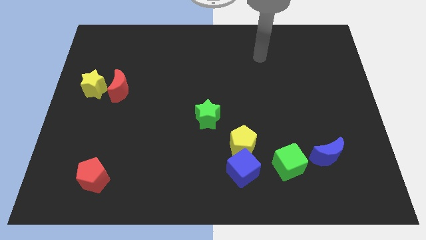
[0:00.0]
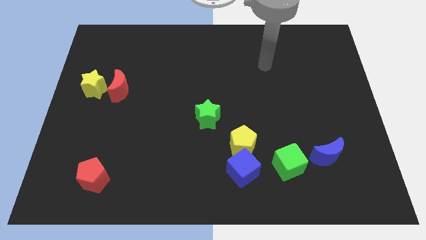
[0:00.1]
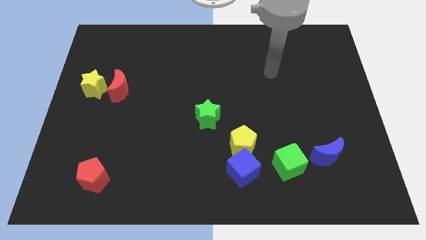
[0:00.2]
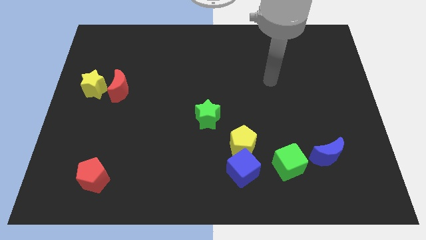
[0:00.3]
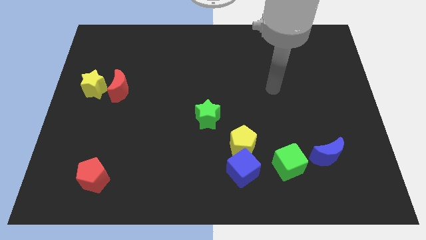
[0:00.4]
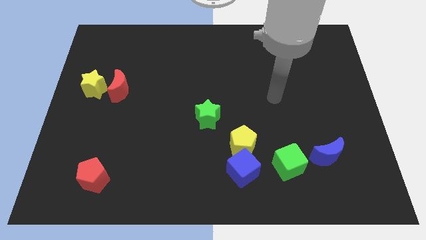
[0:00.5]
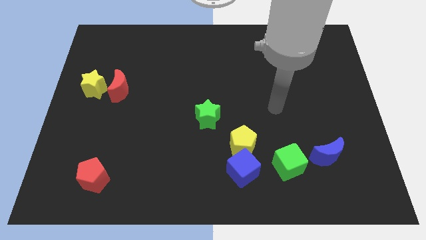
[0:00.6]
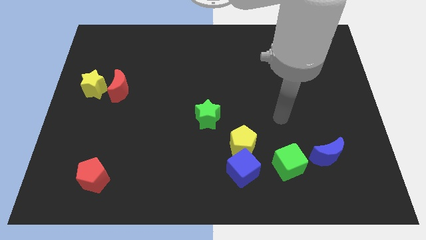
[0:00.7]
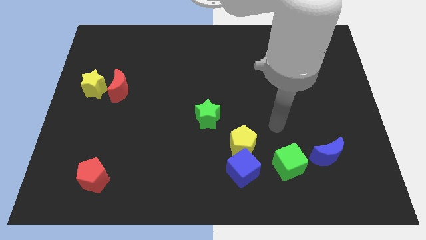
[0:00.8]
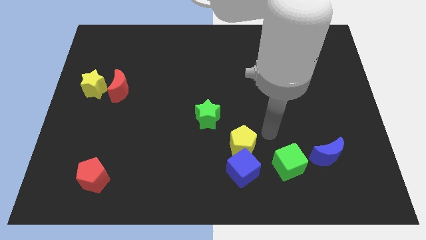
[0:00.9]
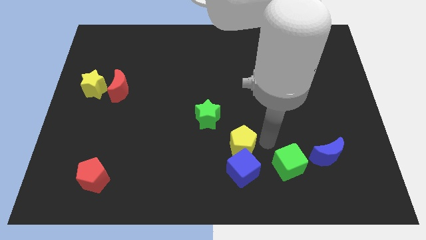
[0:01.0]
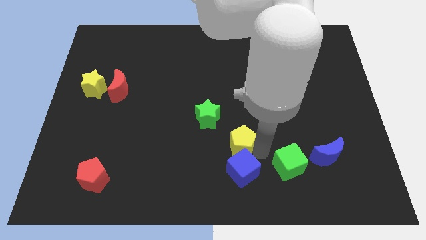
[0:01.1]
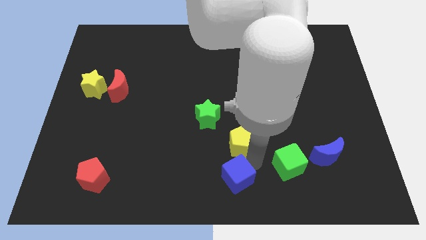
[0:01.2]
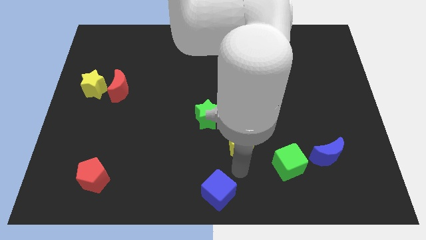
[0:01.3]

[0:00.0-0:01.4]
pull the yellow pentagon apart from the blue cube

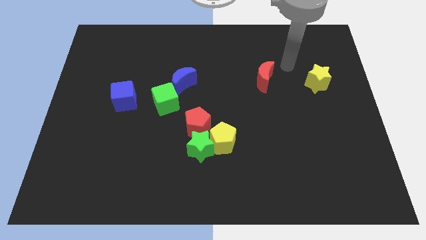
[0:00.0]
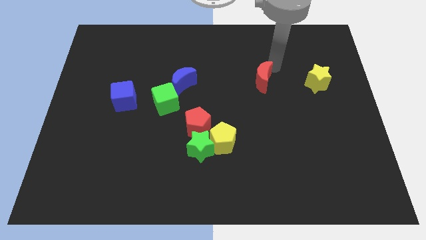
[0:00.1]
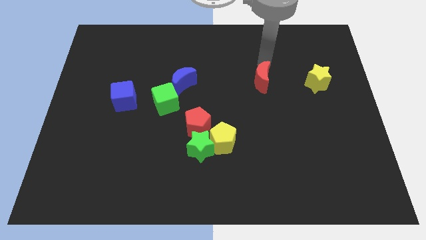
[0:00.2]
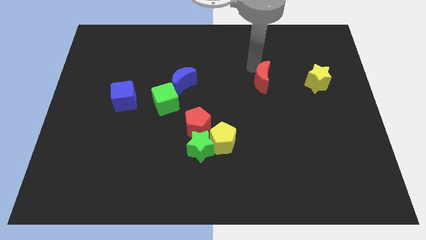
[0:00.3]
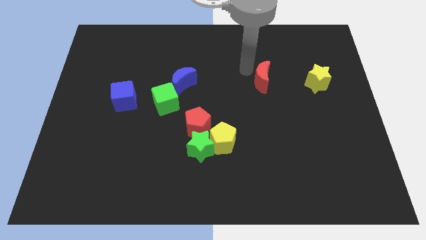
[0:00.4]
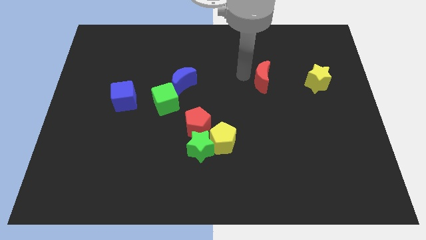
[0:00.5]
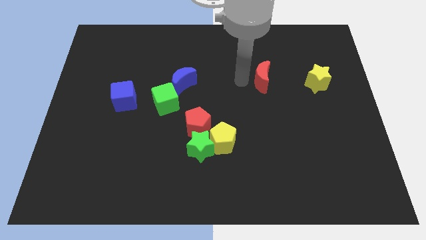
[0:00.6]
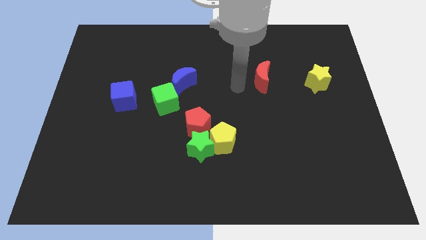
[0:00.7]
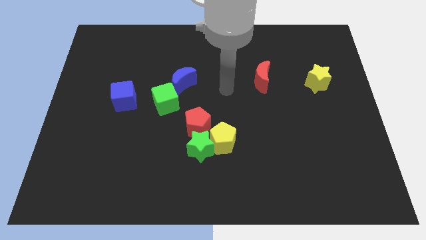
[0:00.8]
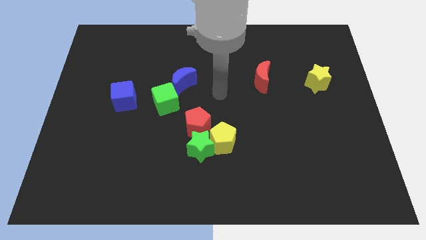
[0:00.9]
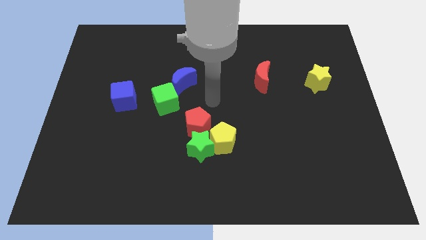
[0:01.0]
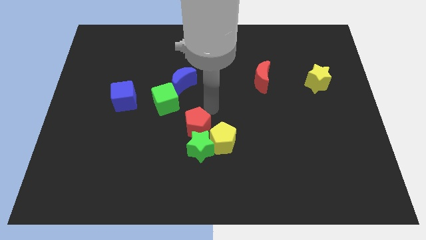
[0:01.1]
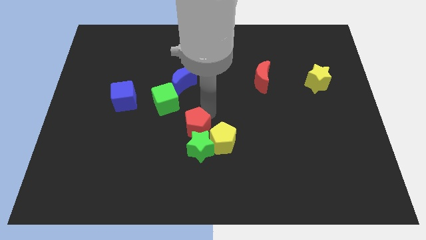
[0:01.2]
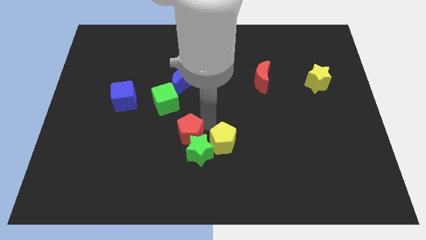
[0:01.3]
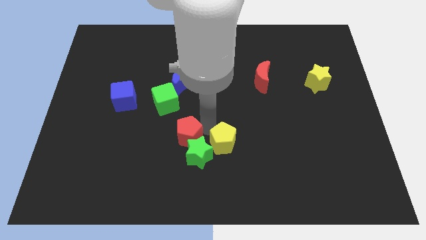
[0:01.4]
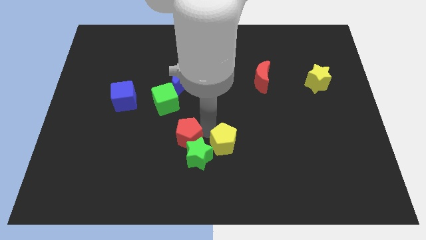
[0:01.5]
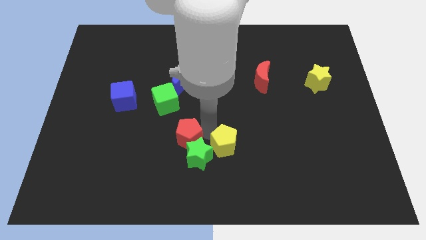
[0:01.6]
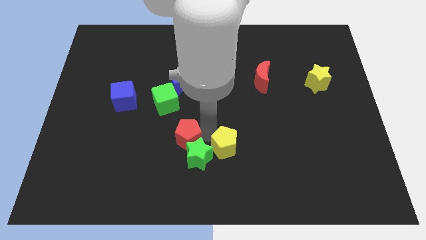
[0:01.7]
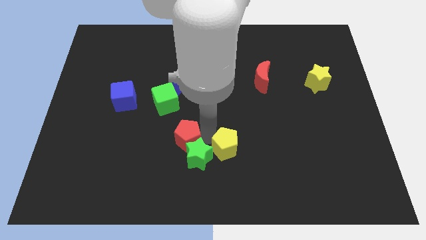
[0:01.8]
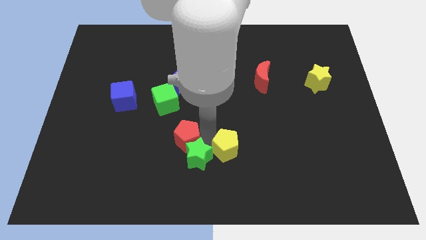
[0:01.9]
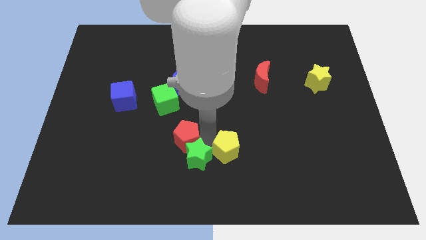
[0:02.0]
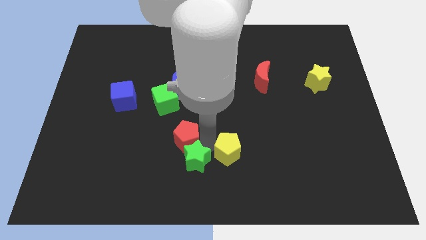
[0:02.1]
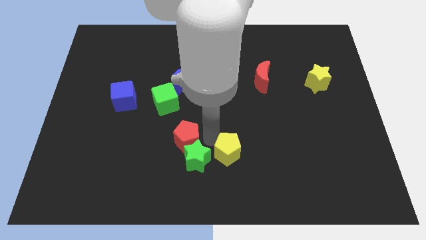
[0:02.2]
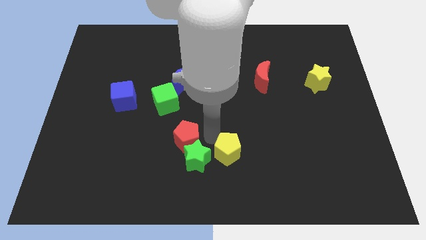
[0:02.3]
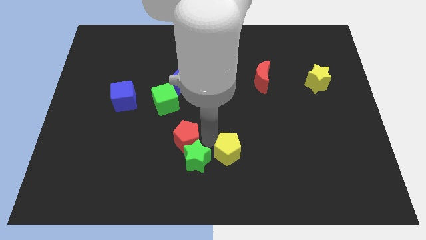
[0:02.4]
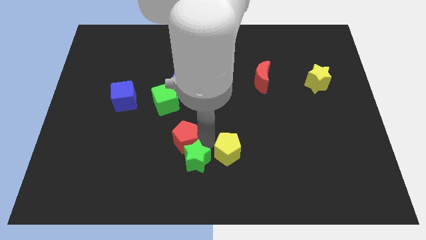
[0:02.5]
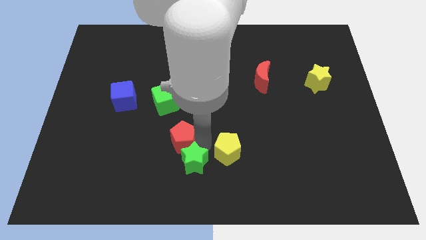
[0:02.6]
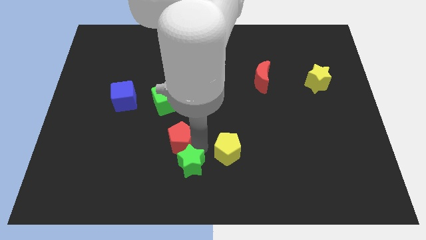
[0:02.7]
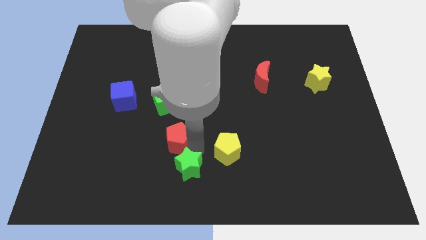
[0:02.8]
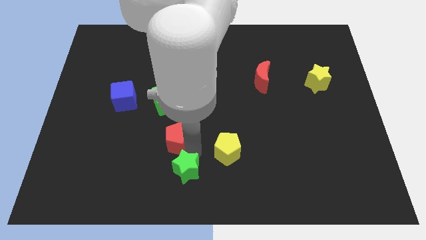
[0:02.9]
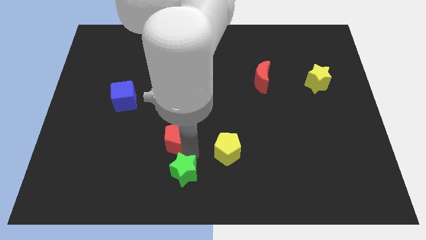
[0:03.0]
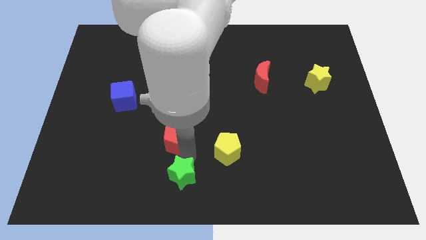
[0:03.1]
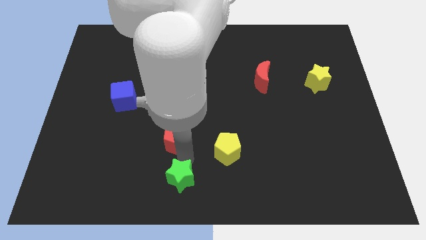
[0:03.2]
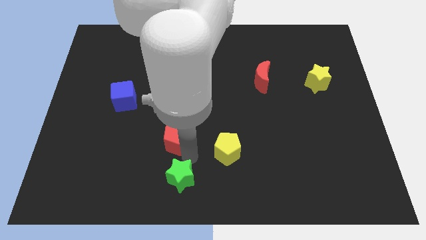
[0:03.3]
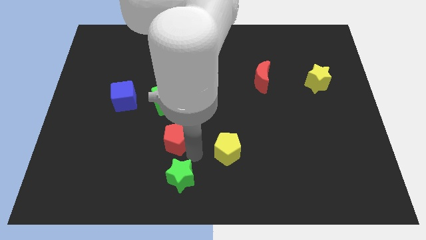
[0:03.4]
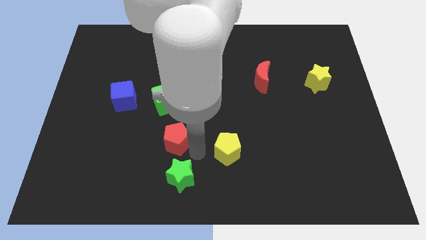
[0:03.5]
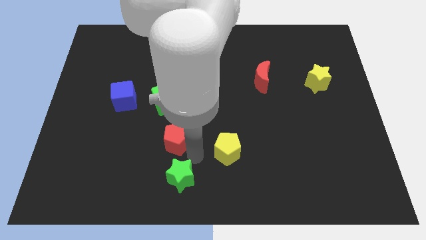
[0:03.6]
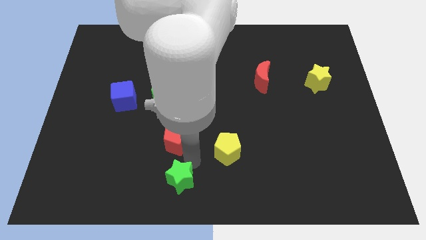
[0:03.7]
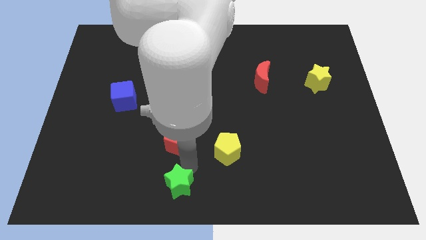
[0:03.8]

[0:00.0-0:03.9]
move the green star away from the yellow pentagon and red pentagon

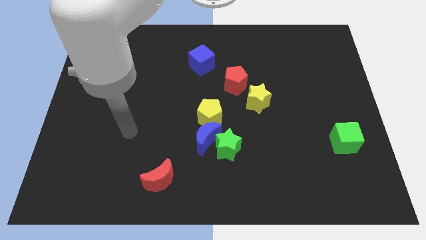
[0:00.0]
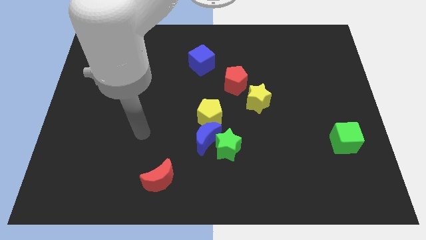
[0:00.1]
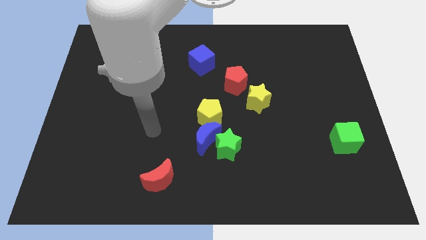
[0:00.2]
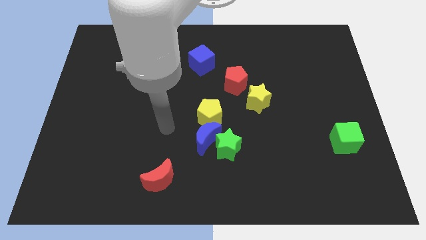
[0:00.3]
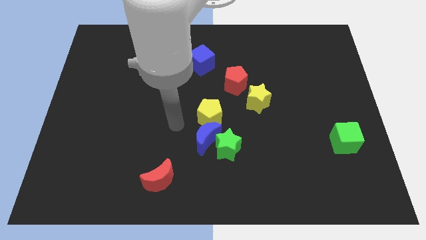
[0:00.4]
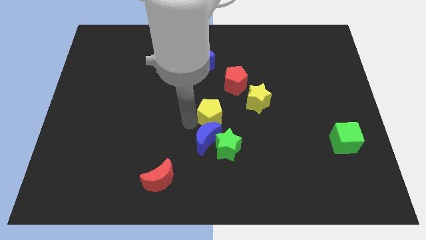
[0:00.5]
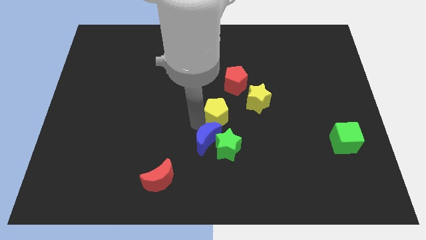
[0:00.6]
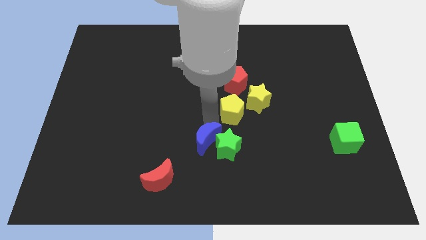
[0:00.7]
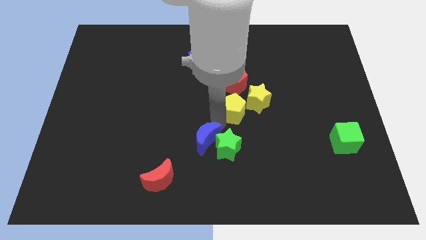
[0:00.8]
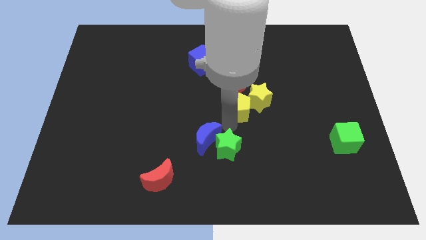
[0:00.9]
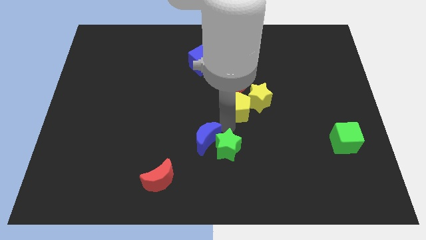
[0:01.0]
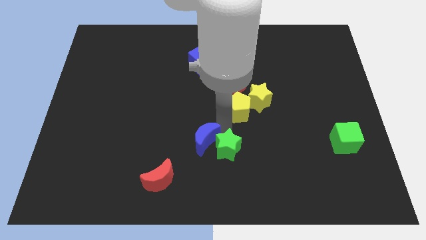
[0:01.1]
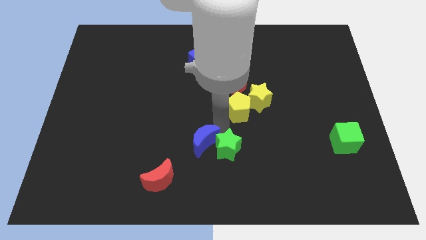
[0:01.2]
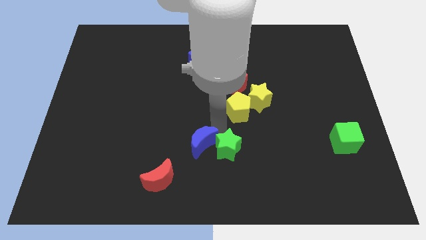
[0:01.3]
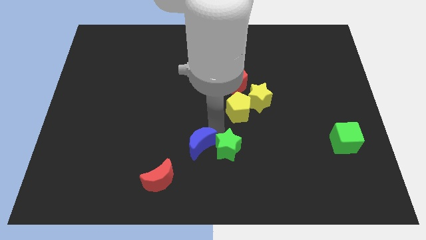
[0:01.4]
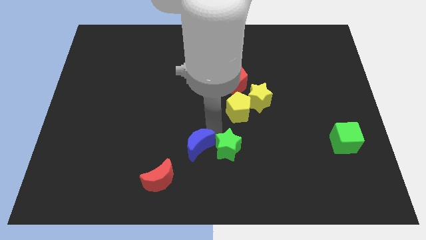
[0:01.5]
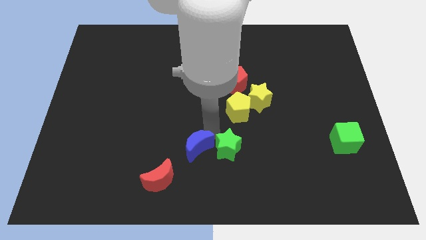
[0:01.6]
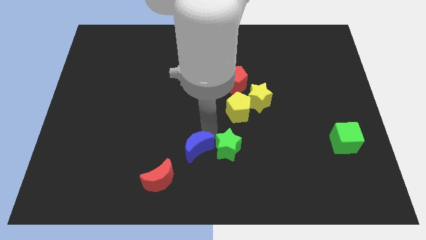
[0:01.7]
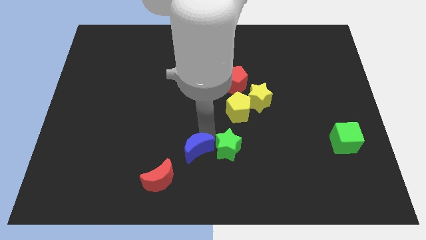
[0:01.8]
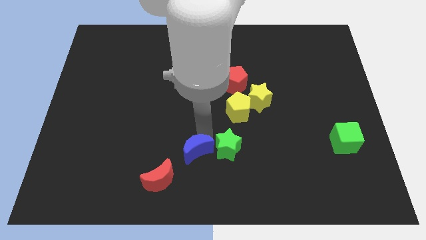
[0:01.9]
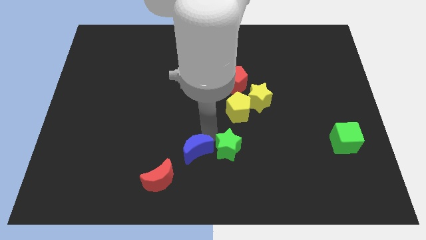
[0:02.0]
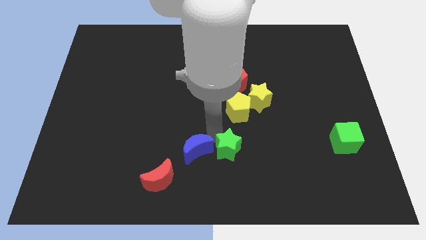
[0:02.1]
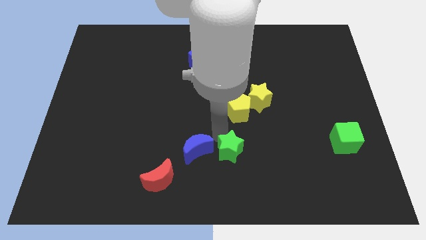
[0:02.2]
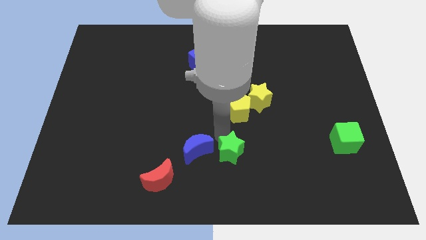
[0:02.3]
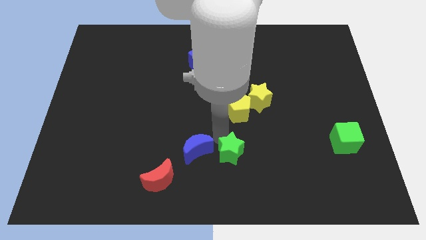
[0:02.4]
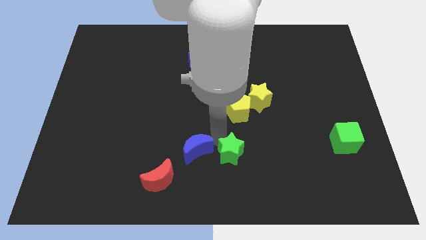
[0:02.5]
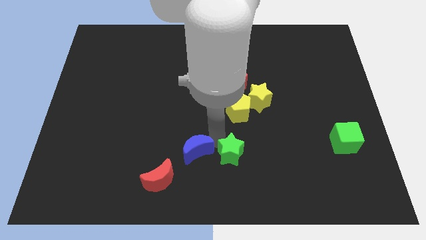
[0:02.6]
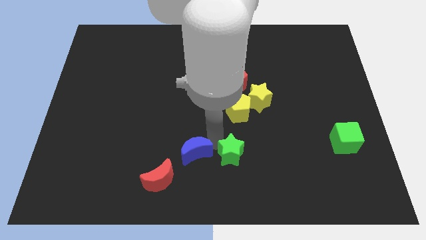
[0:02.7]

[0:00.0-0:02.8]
pull the blue moon apart from the green star and yellow pentagon

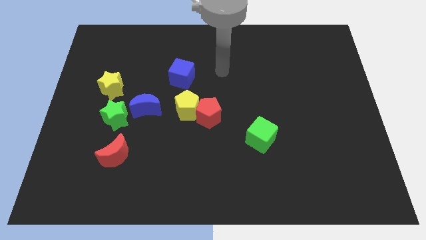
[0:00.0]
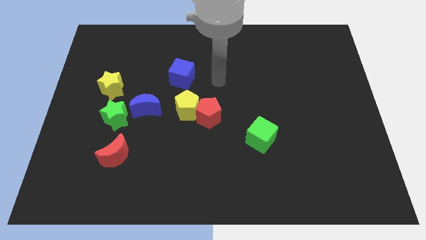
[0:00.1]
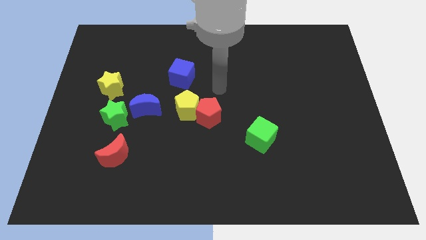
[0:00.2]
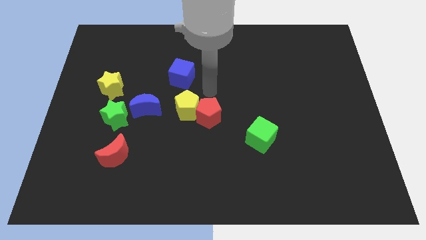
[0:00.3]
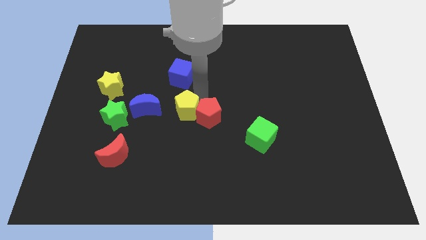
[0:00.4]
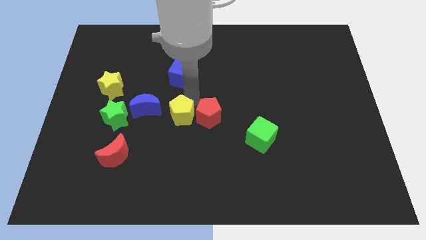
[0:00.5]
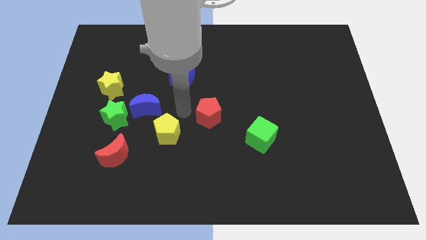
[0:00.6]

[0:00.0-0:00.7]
move the red pentagon away from the yellow pentagon

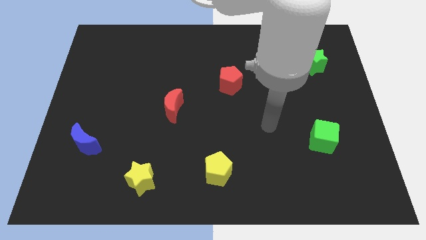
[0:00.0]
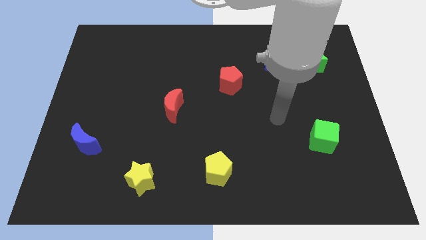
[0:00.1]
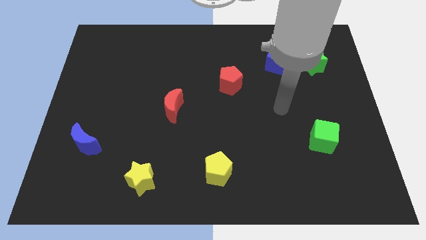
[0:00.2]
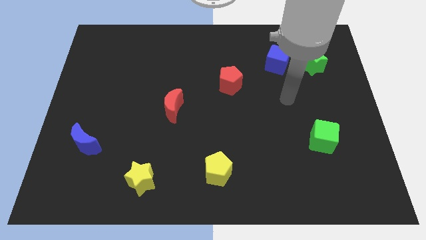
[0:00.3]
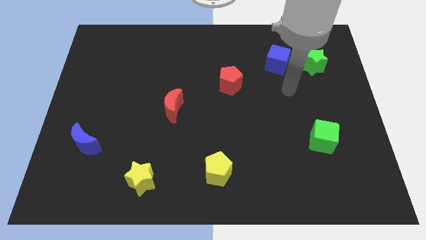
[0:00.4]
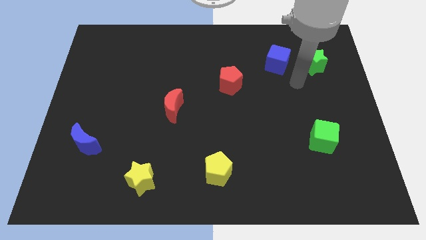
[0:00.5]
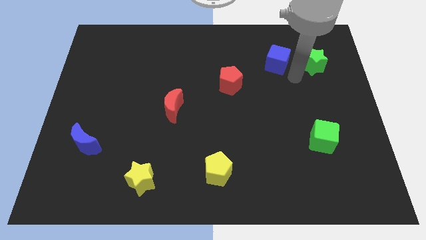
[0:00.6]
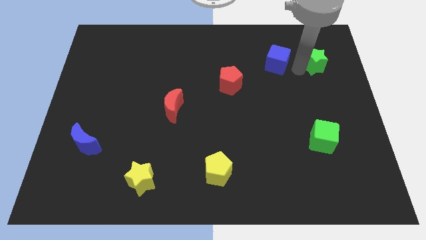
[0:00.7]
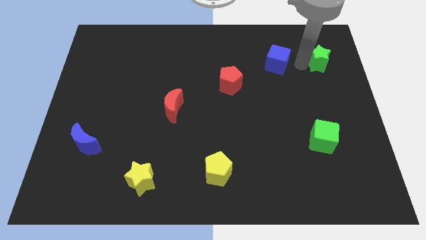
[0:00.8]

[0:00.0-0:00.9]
move the blue cube away from the green star
